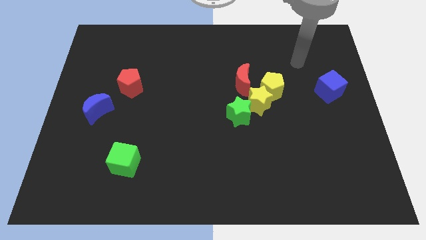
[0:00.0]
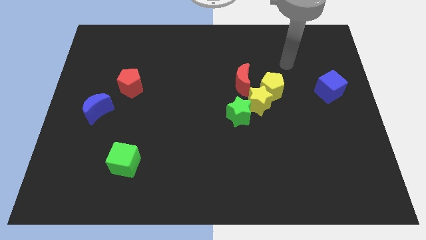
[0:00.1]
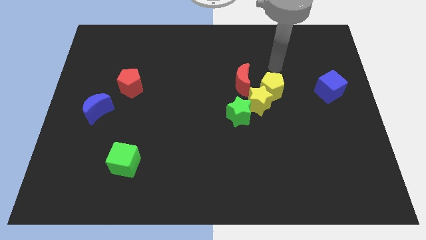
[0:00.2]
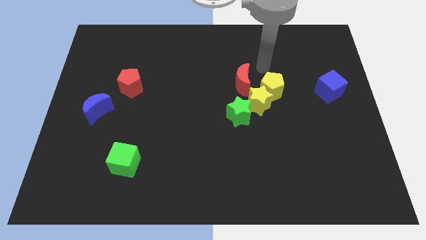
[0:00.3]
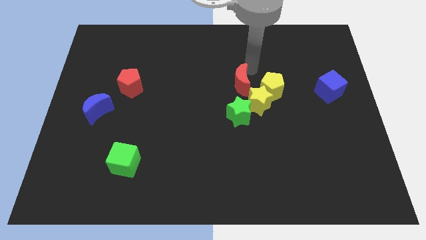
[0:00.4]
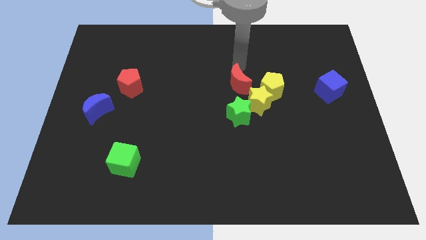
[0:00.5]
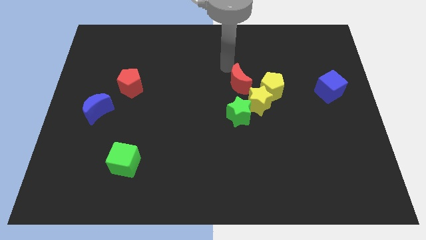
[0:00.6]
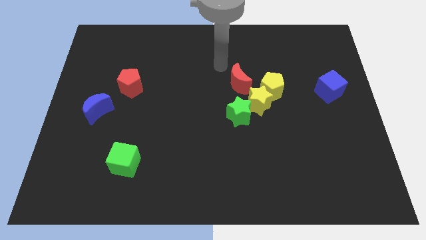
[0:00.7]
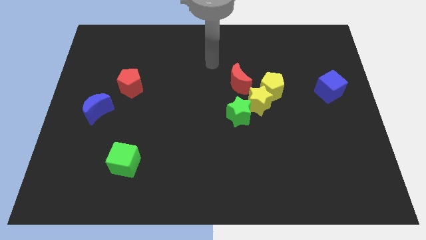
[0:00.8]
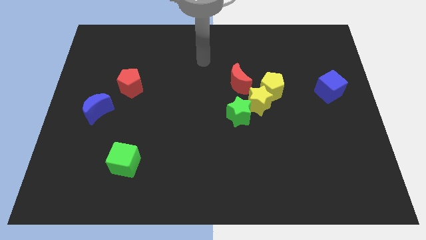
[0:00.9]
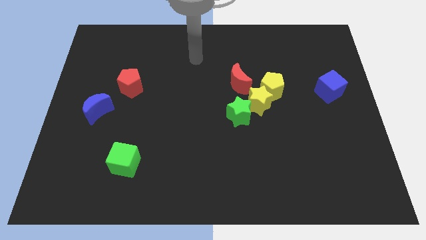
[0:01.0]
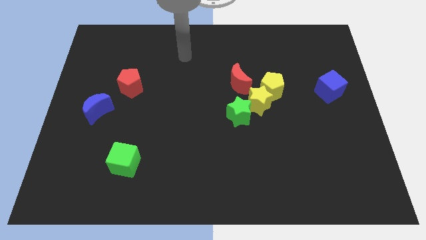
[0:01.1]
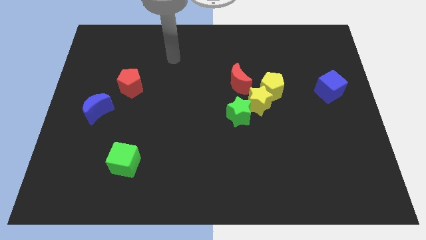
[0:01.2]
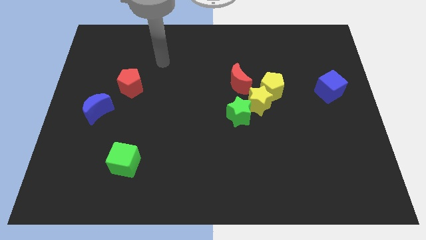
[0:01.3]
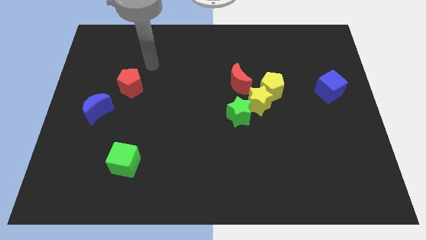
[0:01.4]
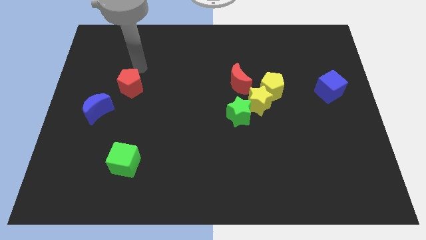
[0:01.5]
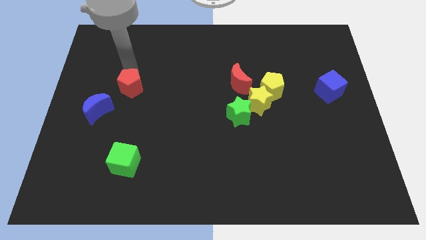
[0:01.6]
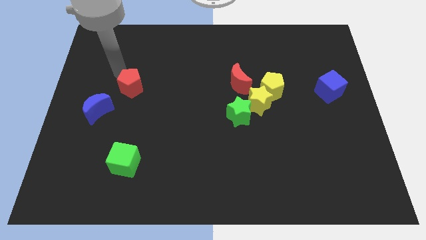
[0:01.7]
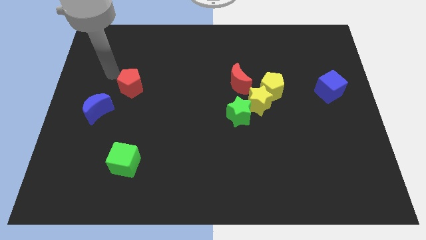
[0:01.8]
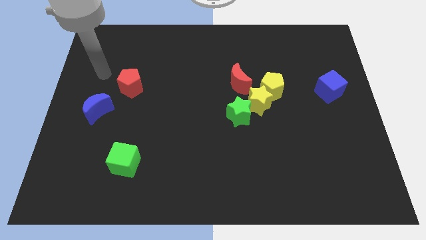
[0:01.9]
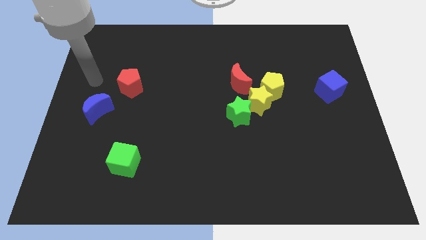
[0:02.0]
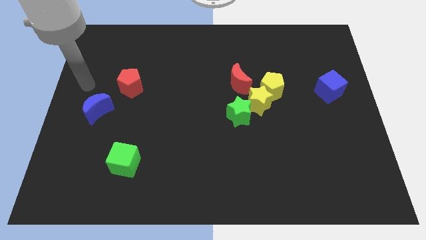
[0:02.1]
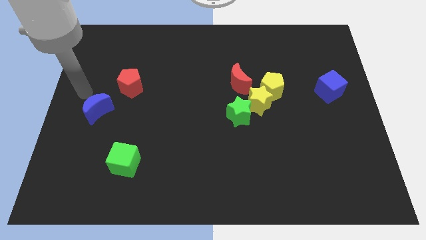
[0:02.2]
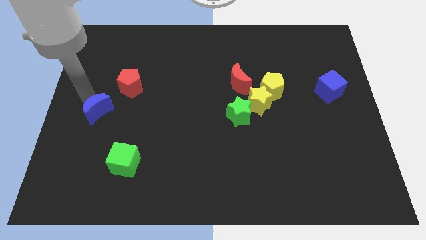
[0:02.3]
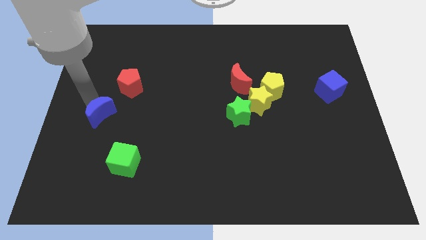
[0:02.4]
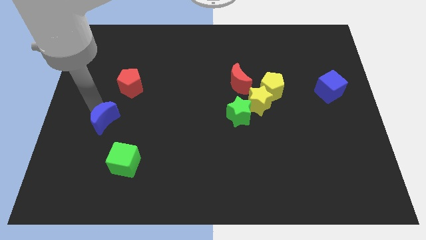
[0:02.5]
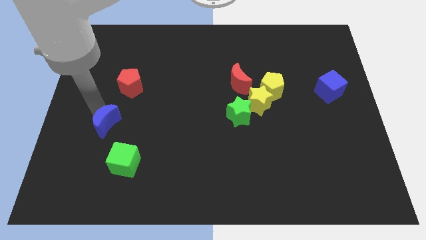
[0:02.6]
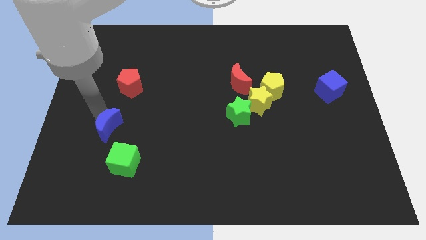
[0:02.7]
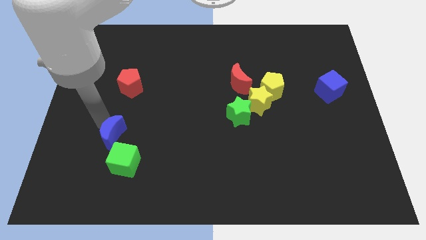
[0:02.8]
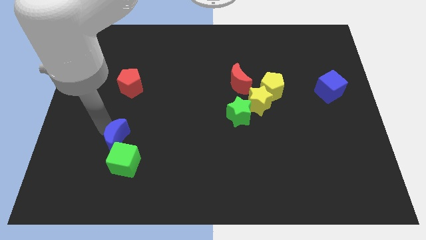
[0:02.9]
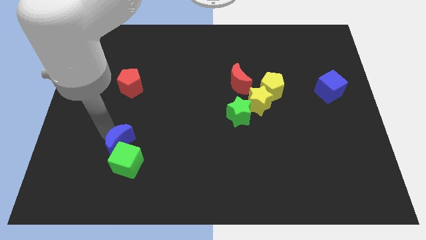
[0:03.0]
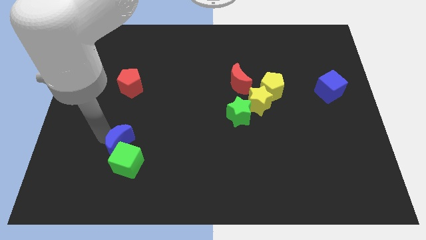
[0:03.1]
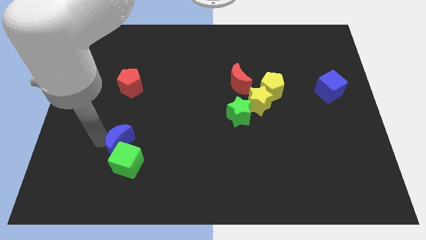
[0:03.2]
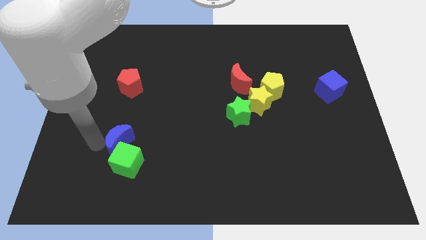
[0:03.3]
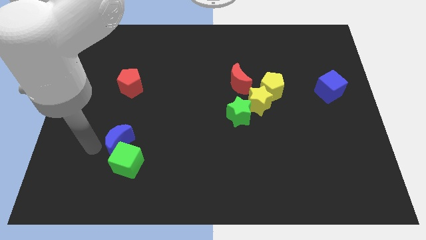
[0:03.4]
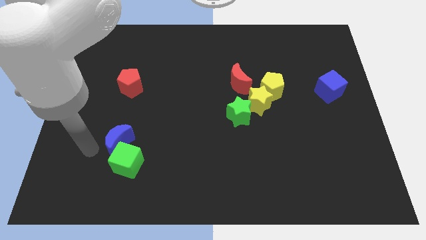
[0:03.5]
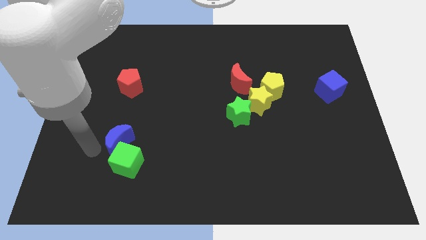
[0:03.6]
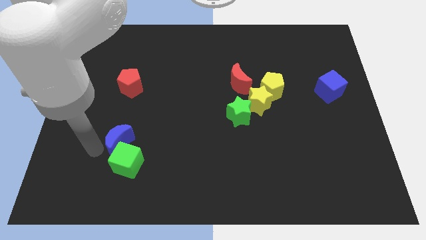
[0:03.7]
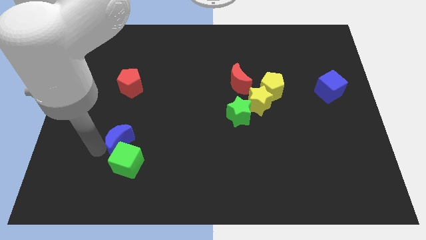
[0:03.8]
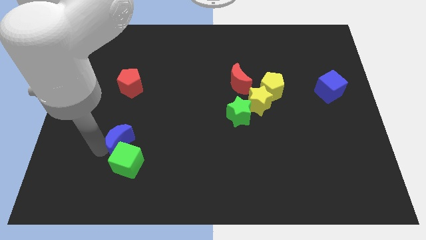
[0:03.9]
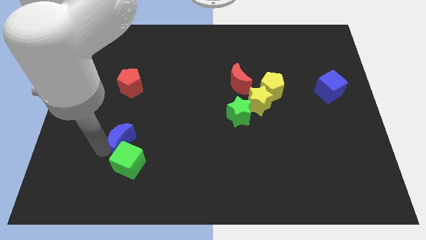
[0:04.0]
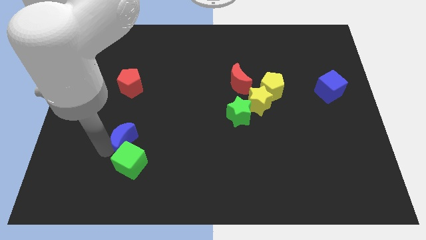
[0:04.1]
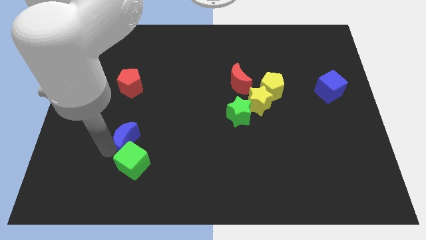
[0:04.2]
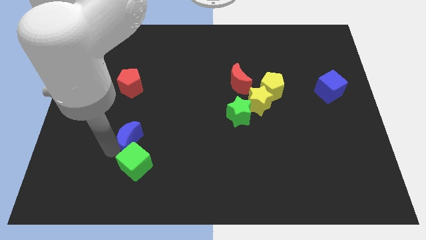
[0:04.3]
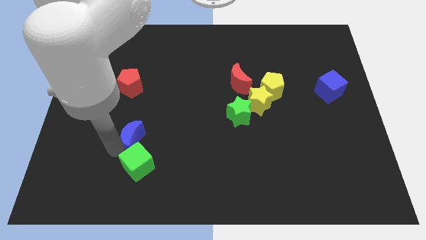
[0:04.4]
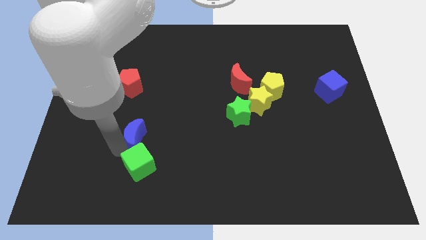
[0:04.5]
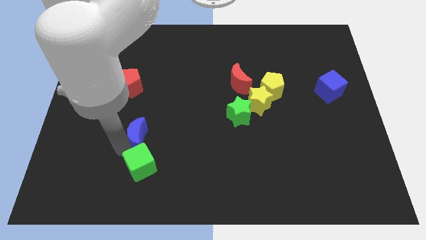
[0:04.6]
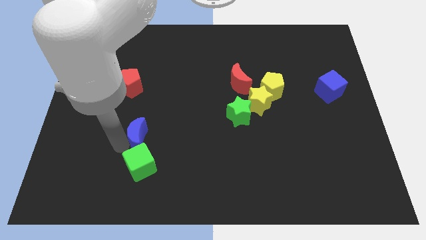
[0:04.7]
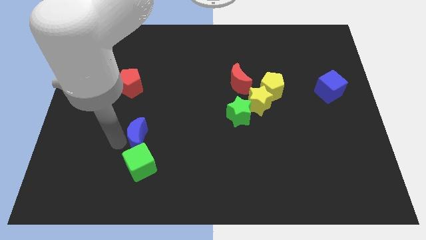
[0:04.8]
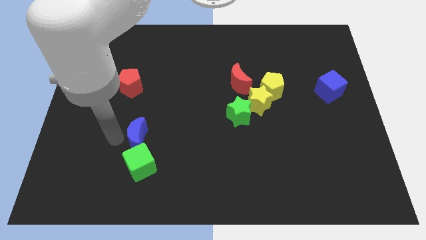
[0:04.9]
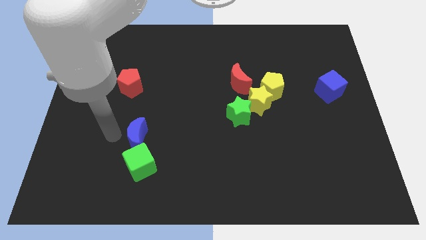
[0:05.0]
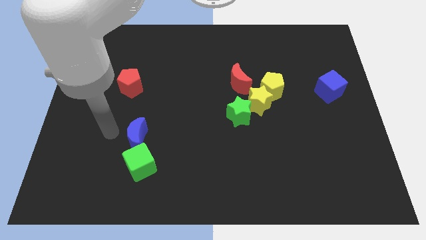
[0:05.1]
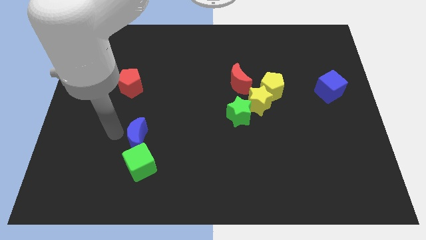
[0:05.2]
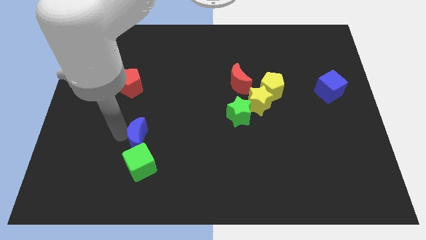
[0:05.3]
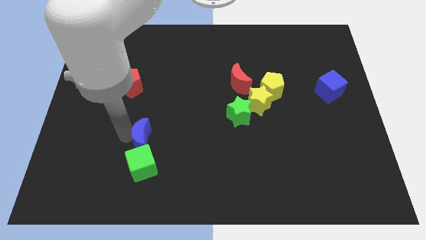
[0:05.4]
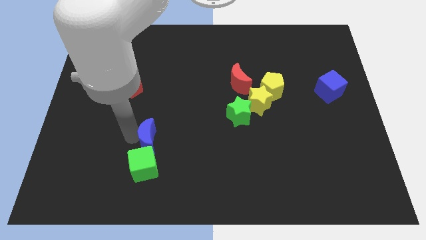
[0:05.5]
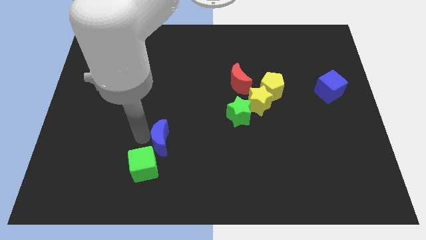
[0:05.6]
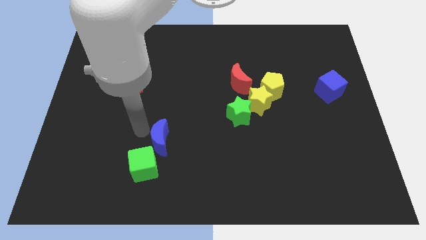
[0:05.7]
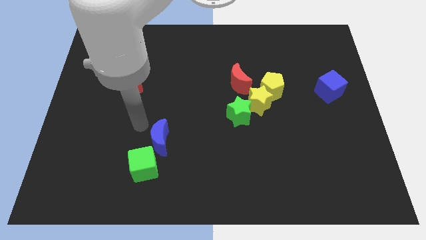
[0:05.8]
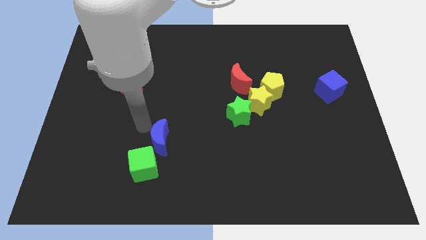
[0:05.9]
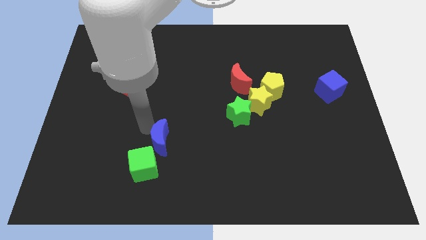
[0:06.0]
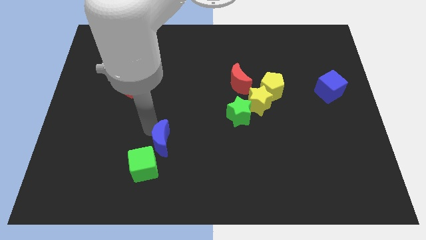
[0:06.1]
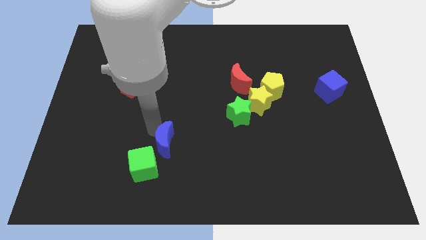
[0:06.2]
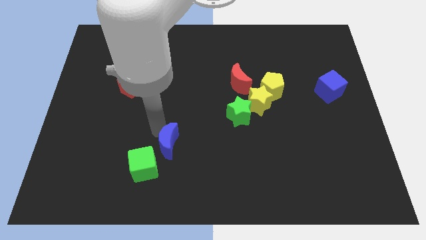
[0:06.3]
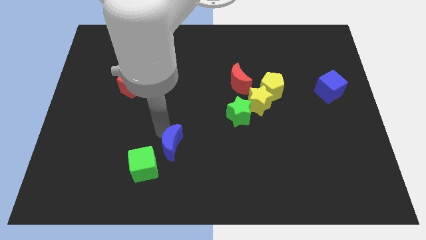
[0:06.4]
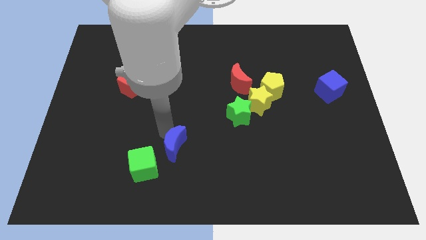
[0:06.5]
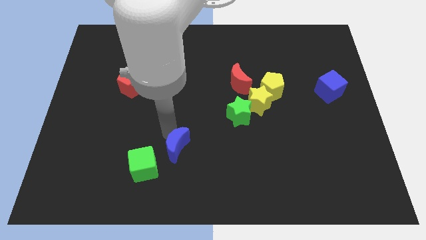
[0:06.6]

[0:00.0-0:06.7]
move the blue moon to the right of the green cube
